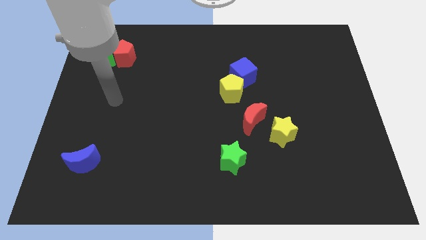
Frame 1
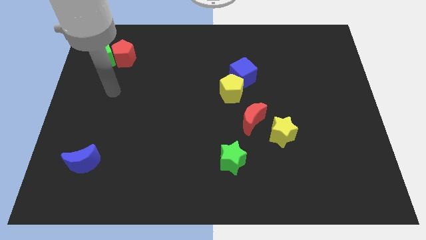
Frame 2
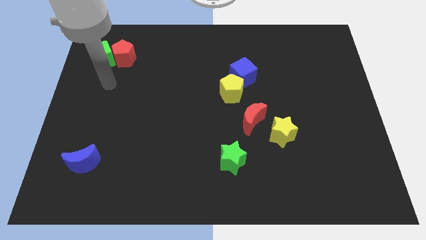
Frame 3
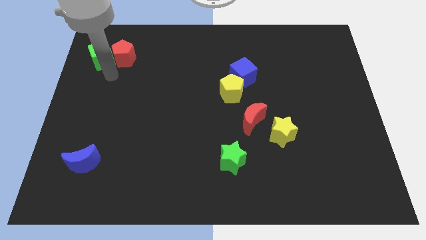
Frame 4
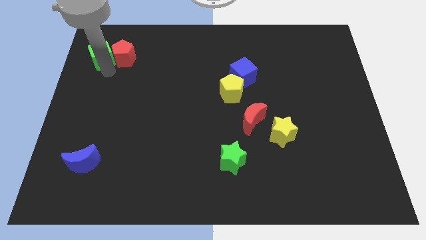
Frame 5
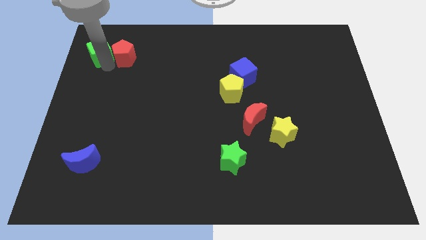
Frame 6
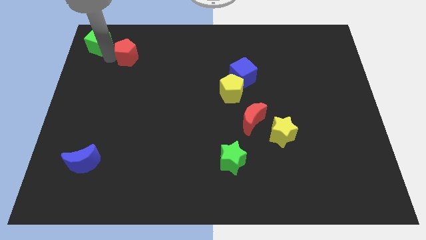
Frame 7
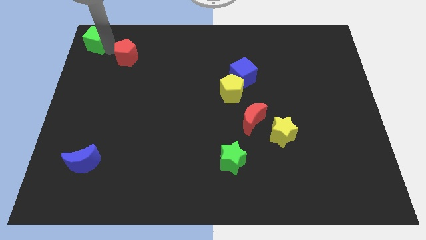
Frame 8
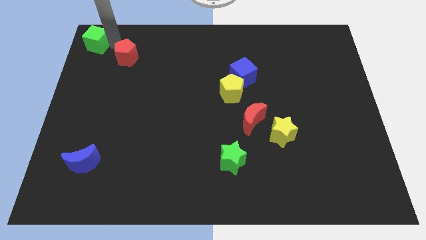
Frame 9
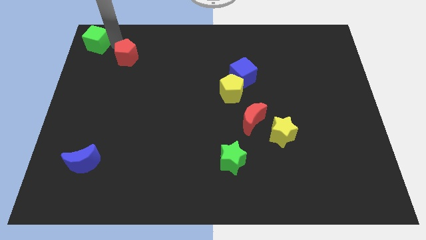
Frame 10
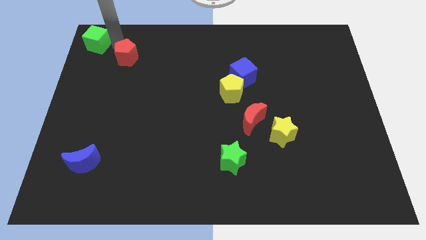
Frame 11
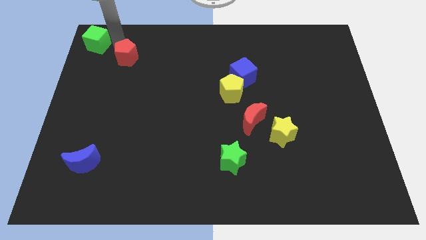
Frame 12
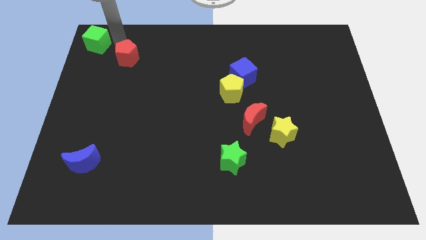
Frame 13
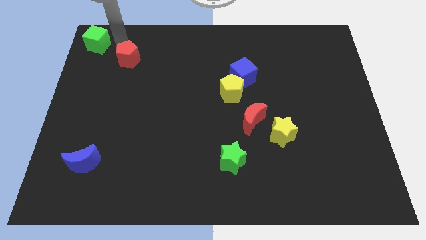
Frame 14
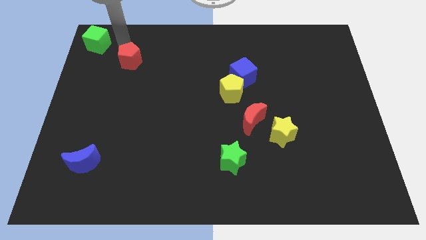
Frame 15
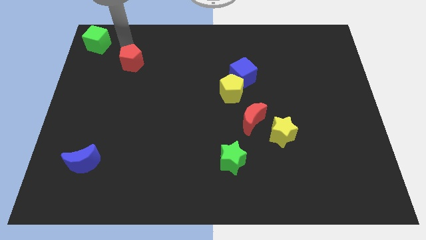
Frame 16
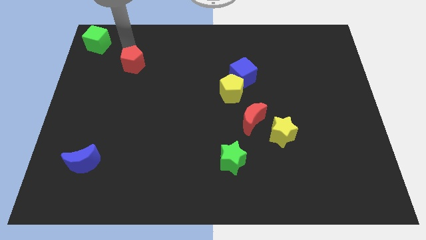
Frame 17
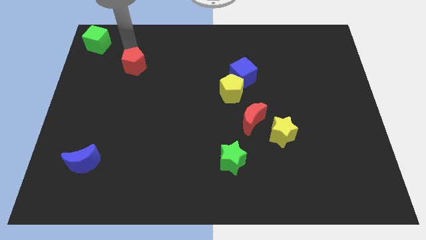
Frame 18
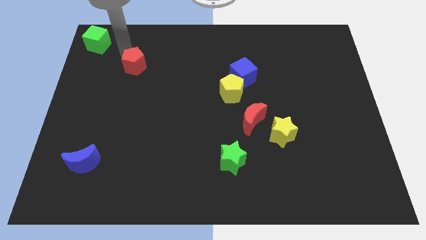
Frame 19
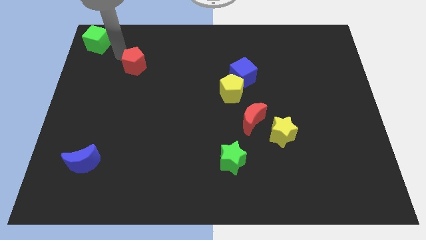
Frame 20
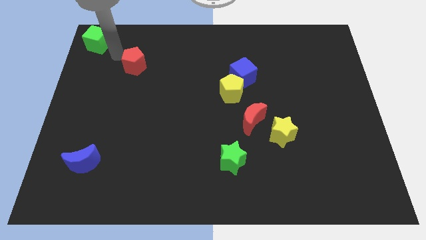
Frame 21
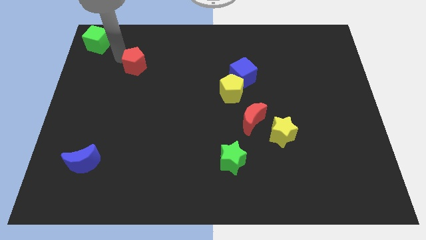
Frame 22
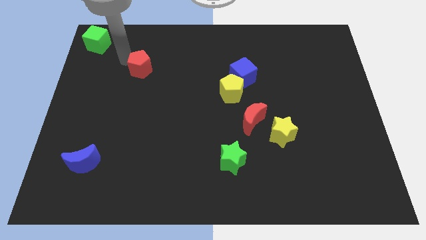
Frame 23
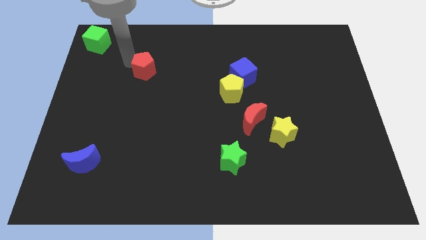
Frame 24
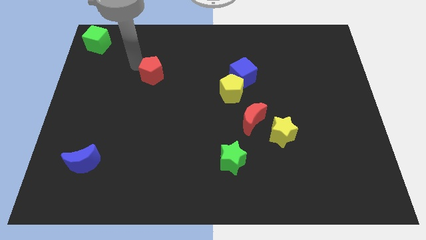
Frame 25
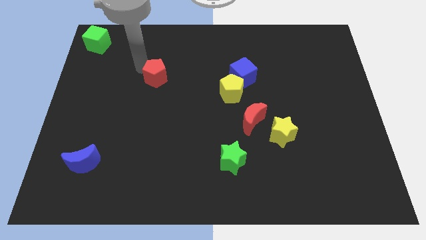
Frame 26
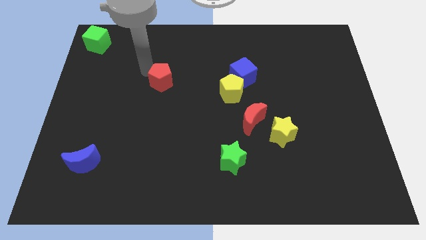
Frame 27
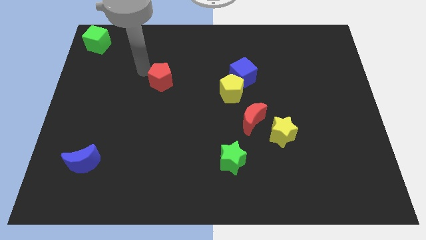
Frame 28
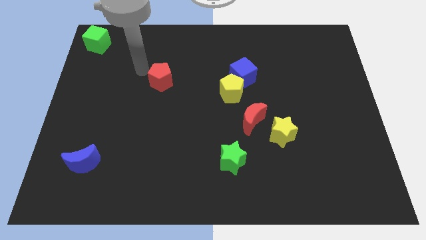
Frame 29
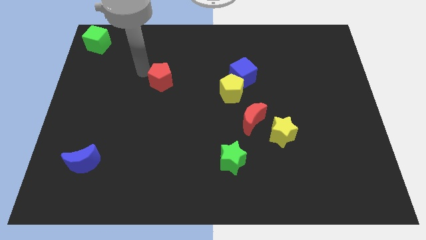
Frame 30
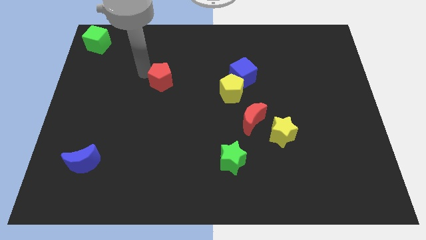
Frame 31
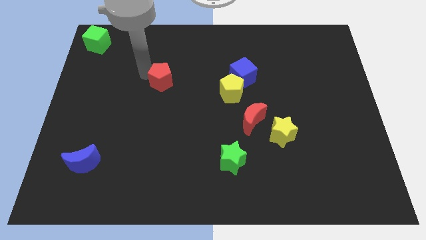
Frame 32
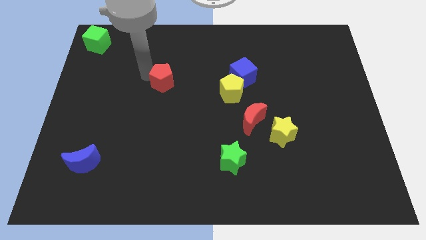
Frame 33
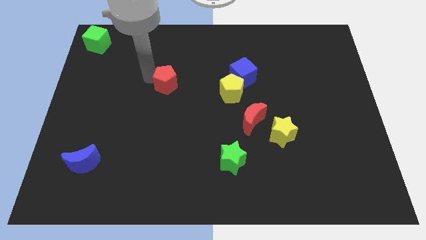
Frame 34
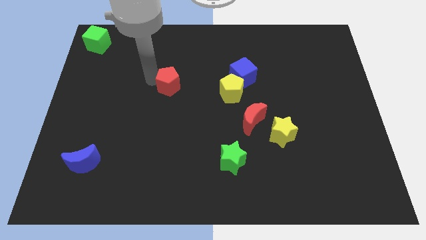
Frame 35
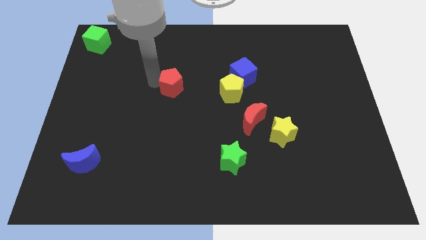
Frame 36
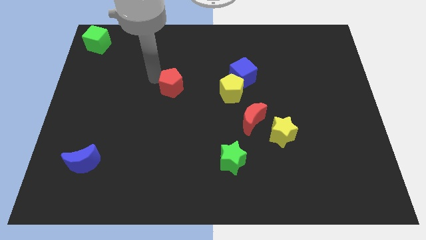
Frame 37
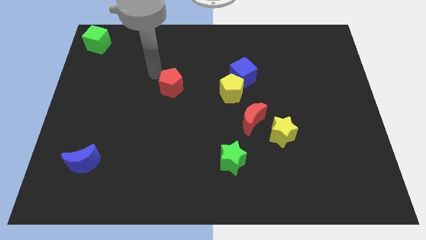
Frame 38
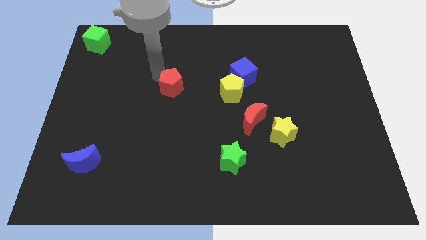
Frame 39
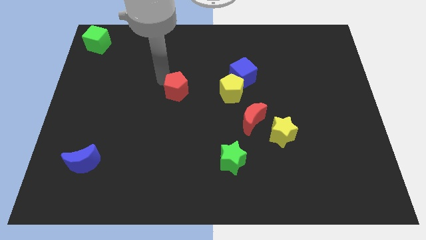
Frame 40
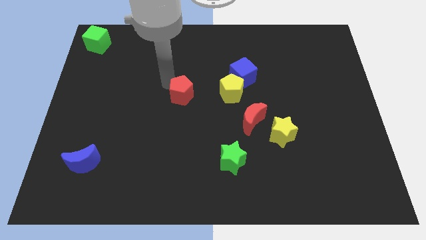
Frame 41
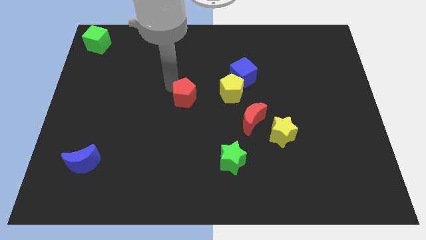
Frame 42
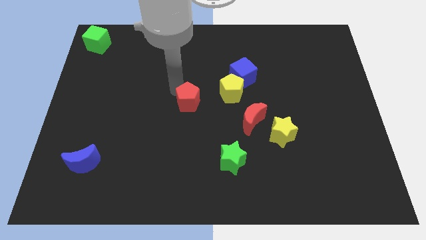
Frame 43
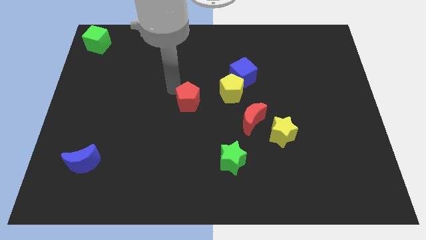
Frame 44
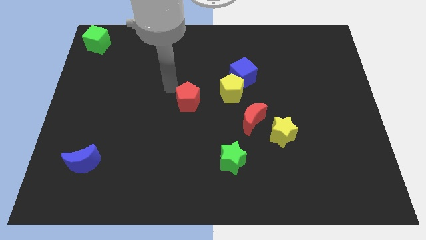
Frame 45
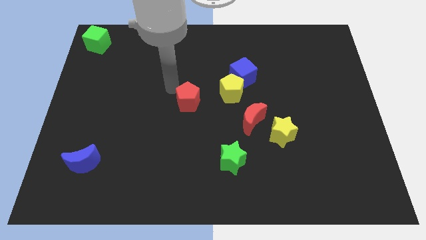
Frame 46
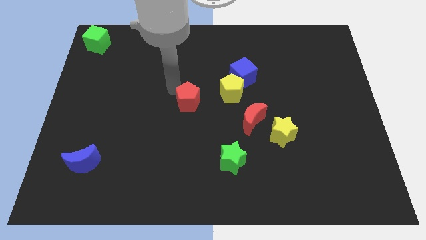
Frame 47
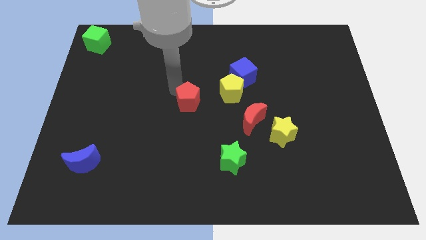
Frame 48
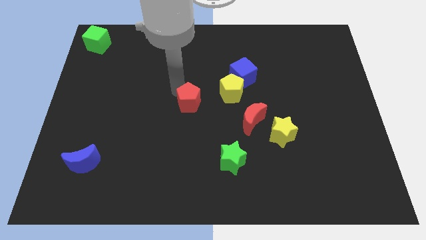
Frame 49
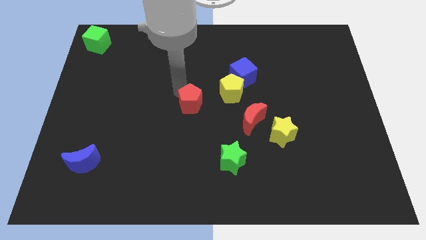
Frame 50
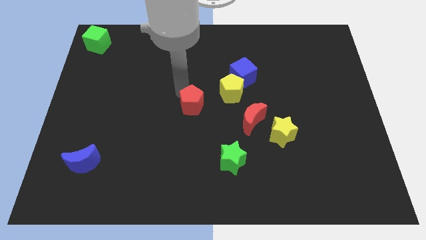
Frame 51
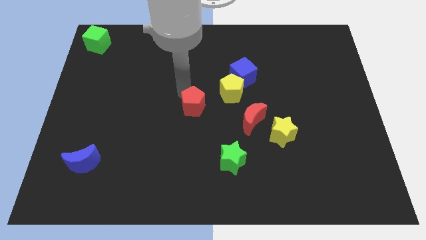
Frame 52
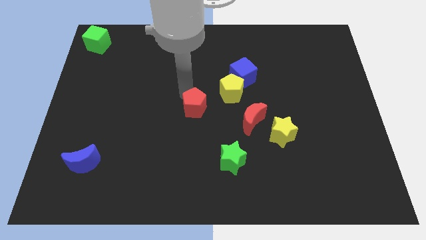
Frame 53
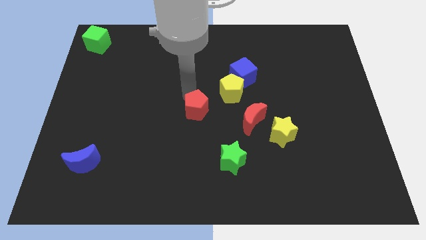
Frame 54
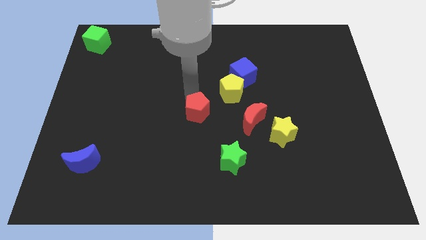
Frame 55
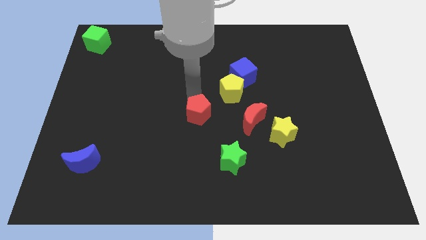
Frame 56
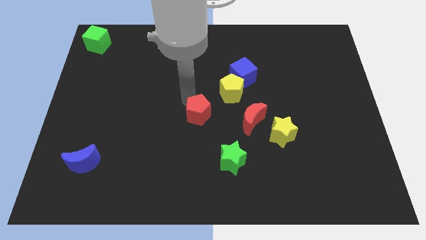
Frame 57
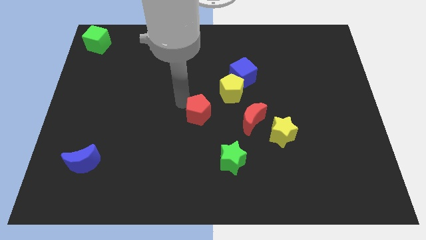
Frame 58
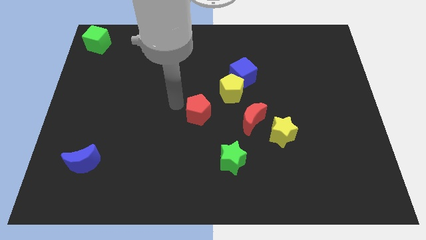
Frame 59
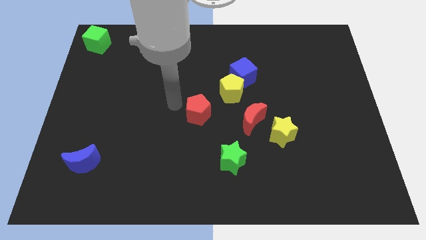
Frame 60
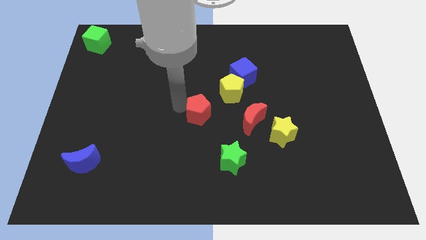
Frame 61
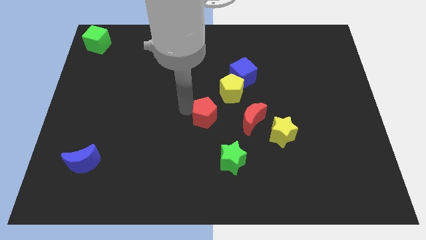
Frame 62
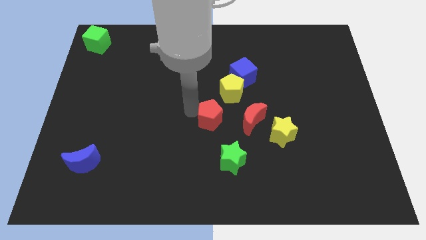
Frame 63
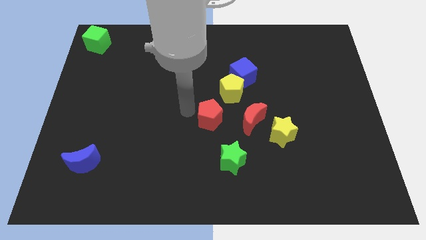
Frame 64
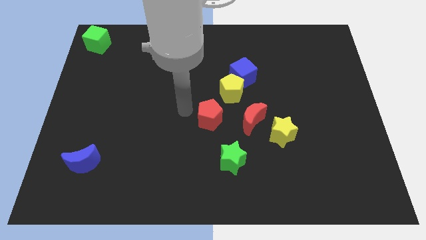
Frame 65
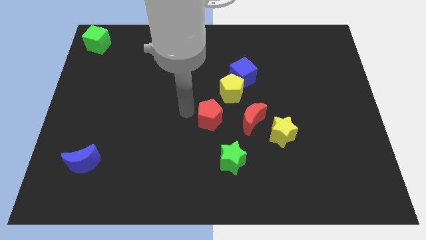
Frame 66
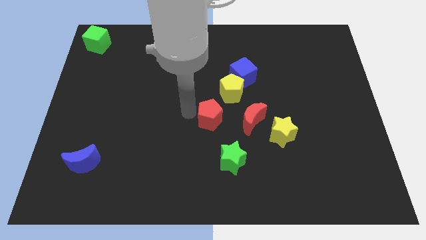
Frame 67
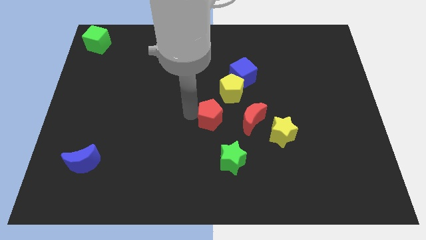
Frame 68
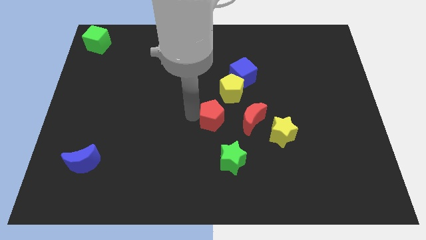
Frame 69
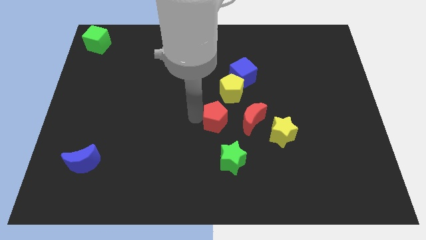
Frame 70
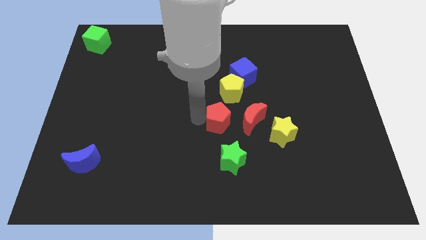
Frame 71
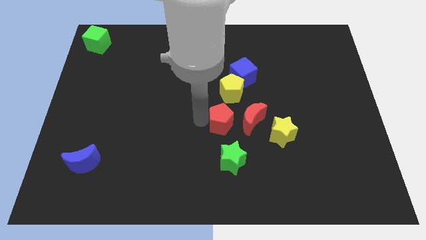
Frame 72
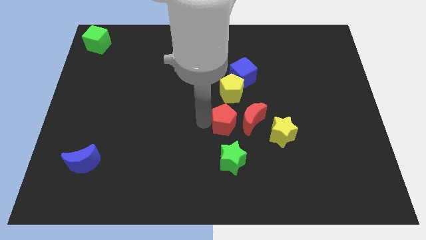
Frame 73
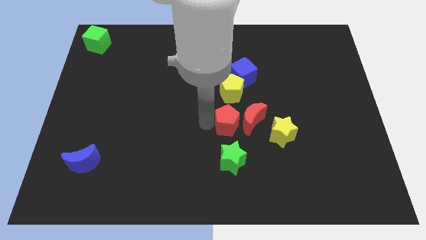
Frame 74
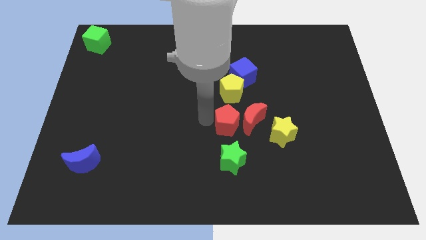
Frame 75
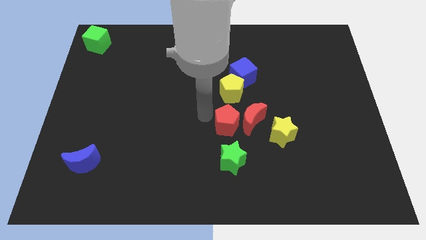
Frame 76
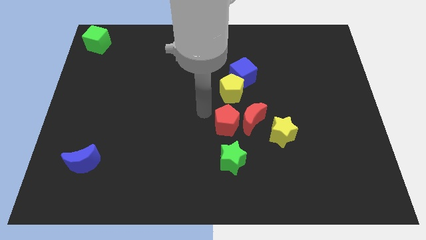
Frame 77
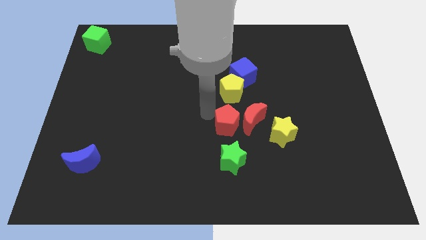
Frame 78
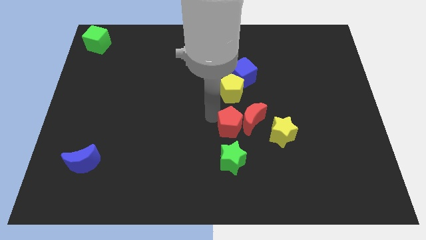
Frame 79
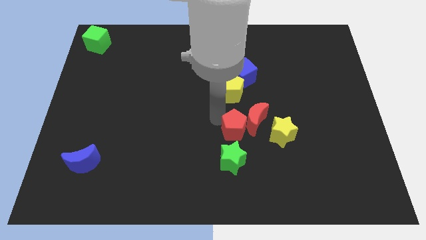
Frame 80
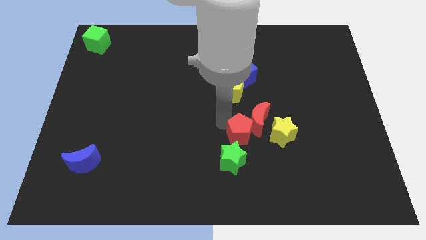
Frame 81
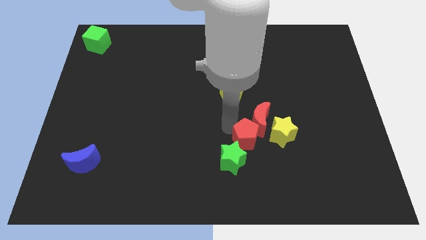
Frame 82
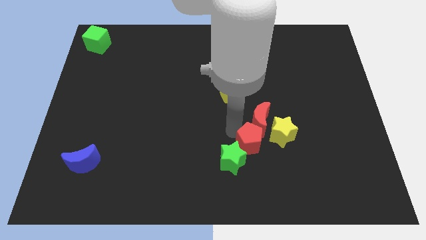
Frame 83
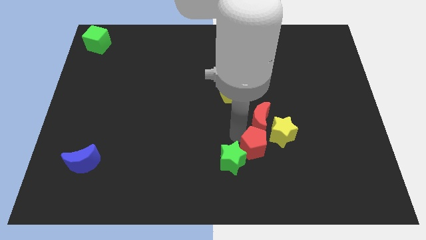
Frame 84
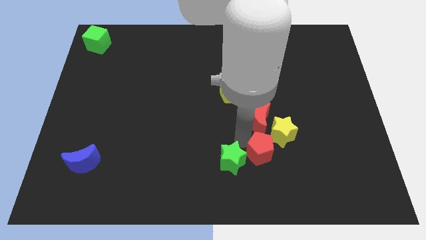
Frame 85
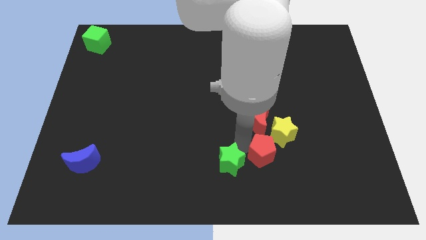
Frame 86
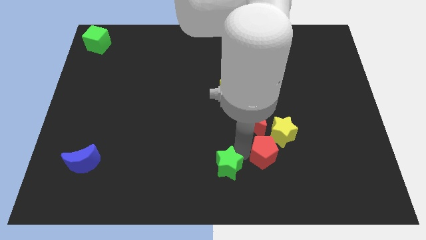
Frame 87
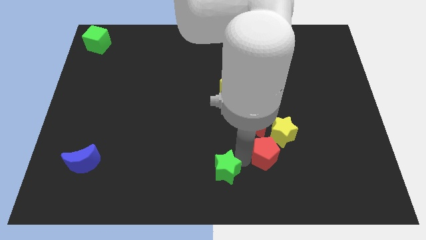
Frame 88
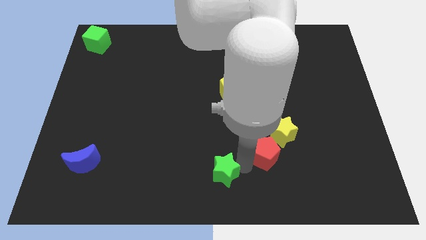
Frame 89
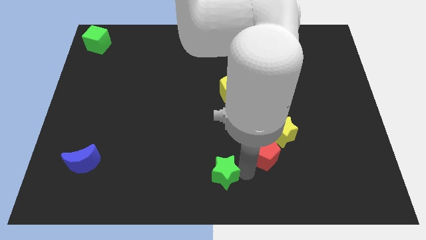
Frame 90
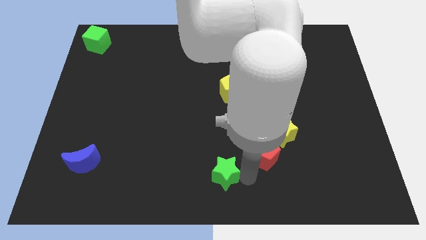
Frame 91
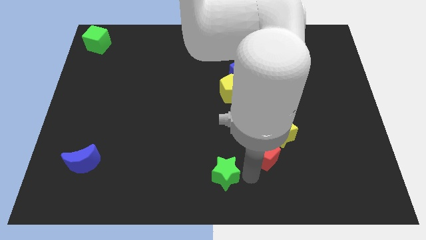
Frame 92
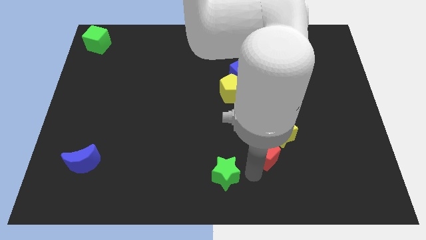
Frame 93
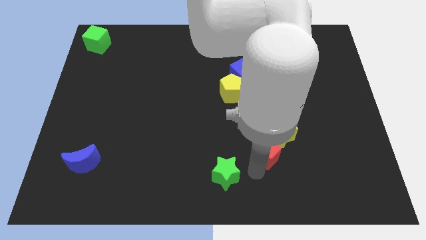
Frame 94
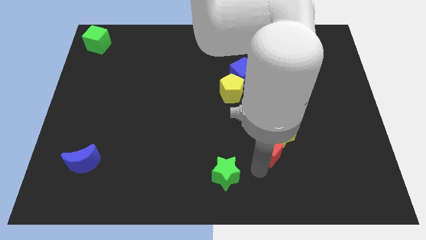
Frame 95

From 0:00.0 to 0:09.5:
put the red pentagon close to the yellow star
